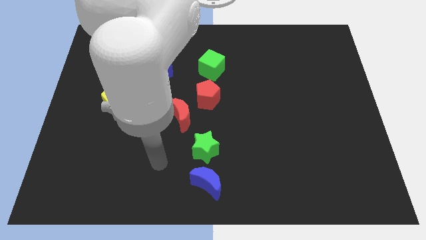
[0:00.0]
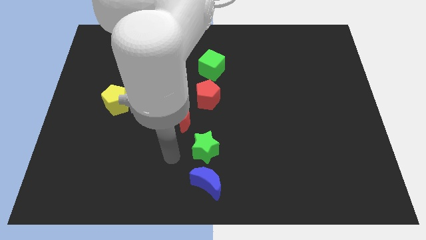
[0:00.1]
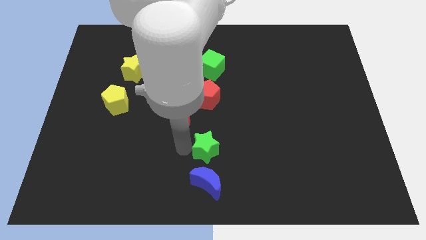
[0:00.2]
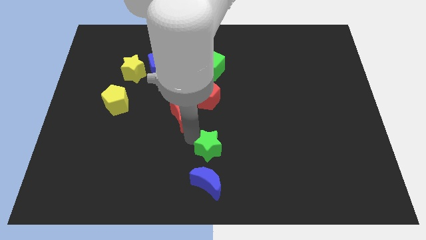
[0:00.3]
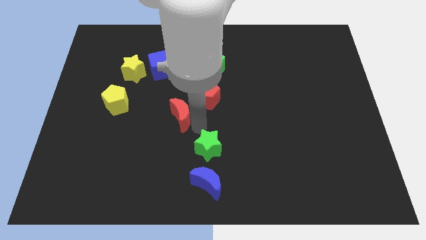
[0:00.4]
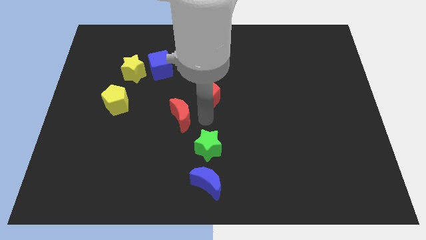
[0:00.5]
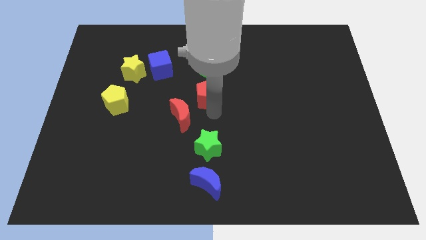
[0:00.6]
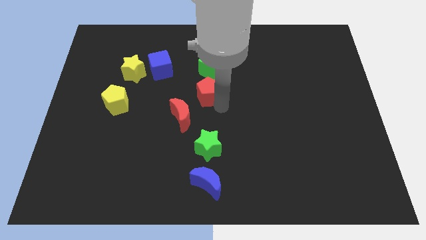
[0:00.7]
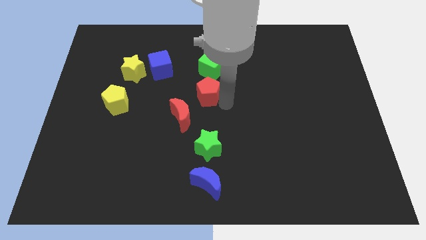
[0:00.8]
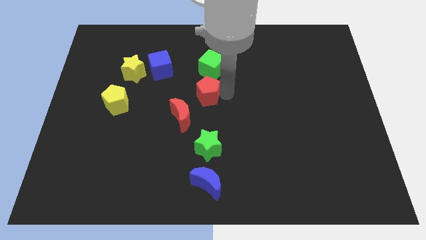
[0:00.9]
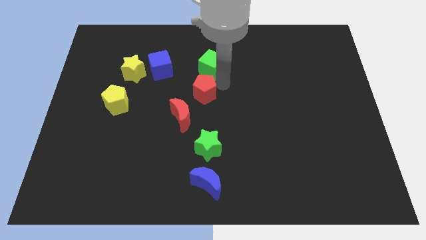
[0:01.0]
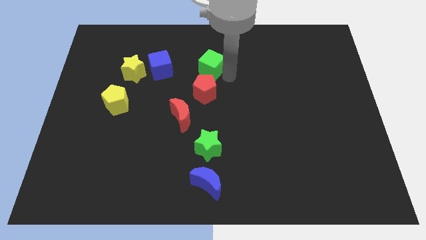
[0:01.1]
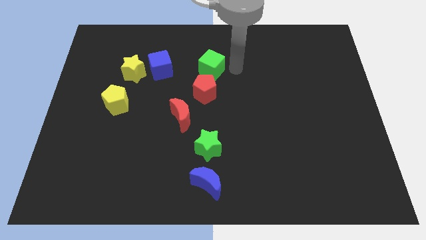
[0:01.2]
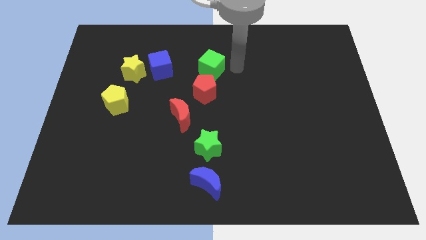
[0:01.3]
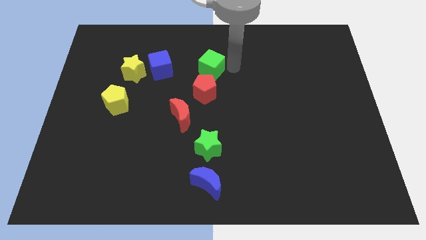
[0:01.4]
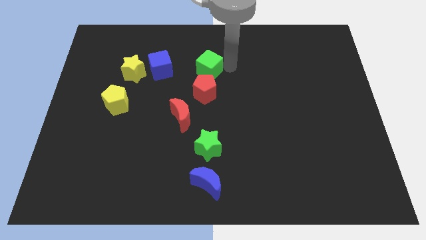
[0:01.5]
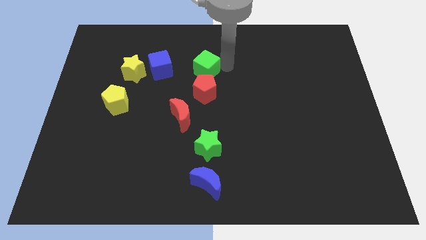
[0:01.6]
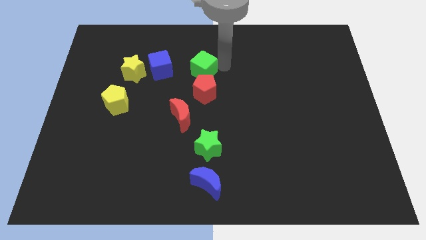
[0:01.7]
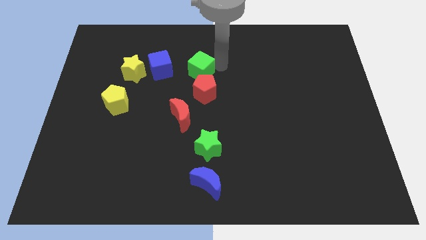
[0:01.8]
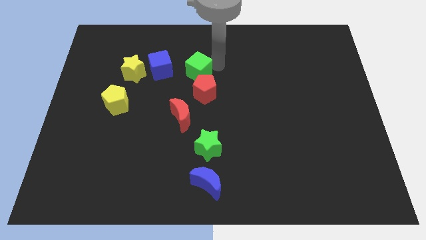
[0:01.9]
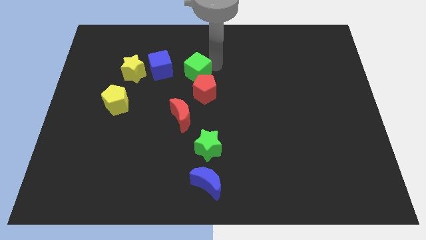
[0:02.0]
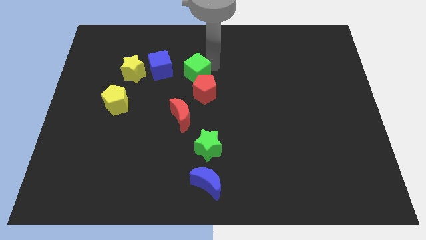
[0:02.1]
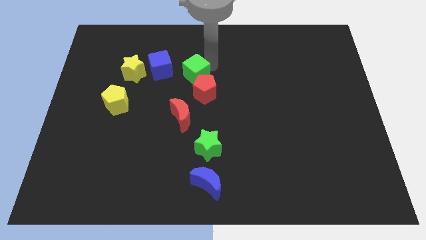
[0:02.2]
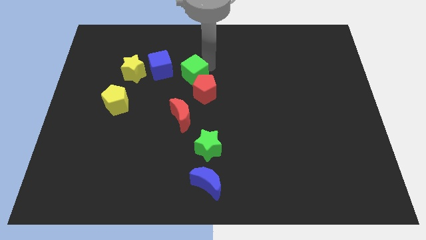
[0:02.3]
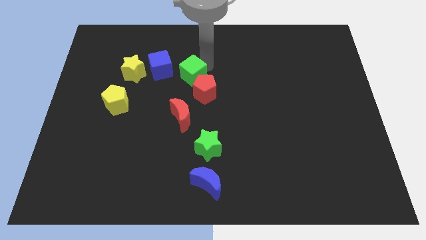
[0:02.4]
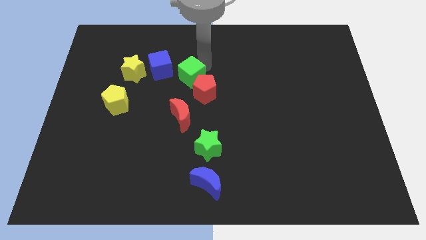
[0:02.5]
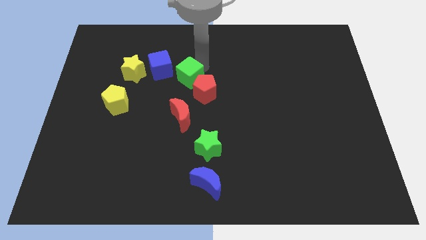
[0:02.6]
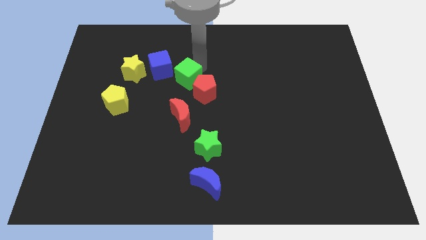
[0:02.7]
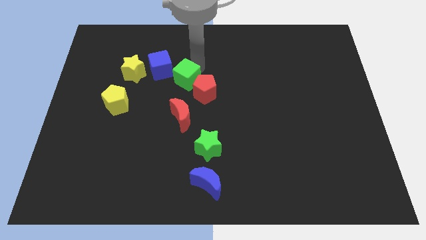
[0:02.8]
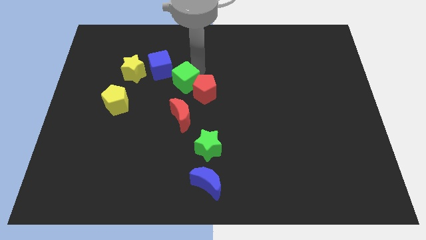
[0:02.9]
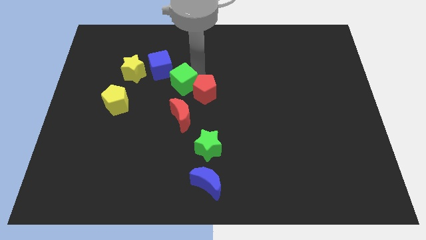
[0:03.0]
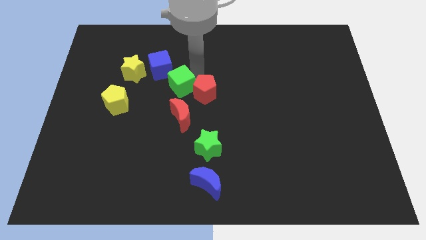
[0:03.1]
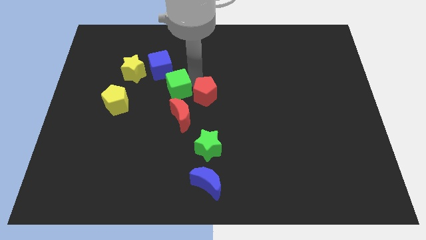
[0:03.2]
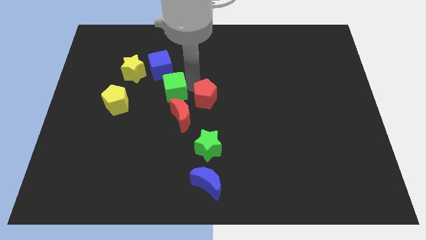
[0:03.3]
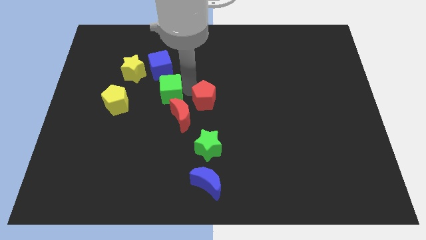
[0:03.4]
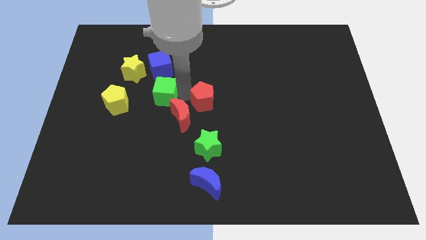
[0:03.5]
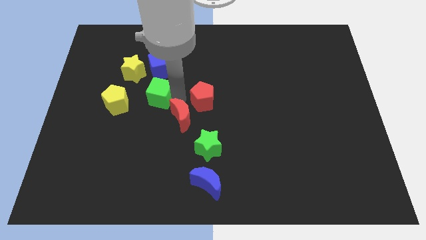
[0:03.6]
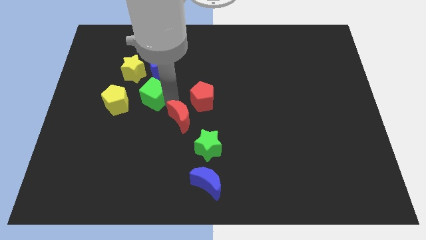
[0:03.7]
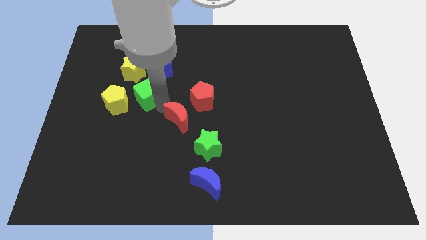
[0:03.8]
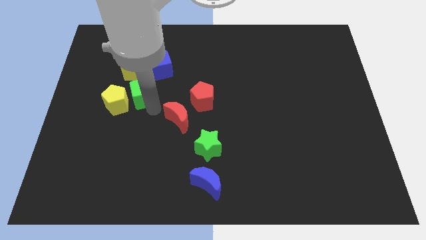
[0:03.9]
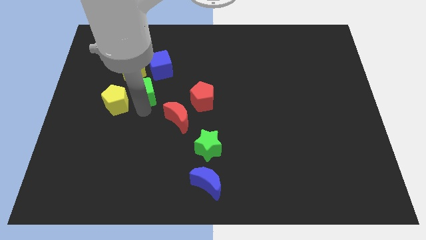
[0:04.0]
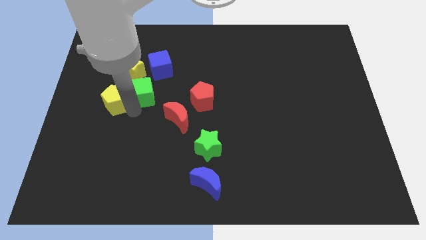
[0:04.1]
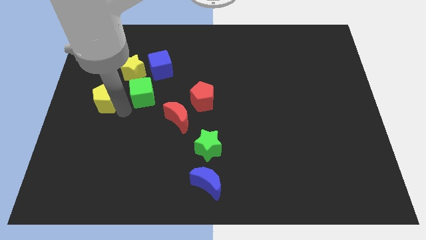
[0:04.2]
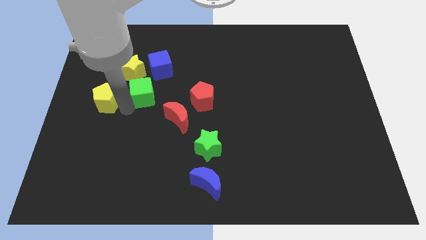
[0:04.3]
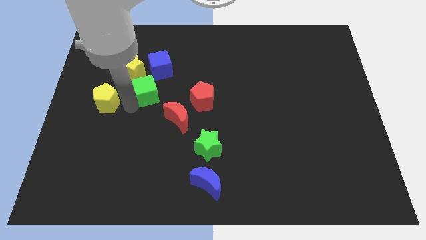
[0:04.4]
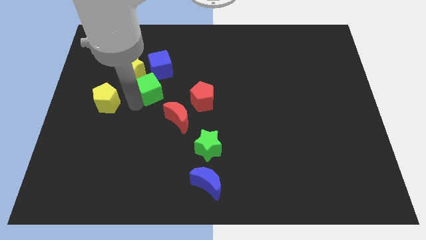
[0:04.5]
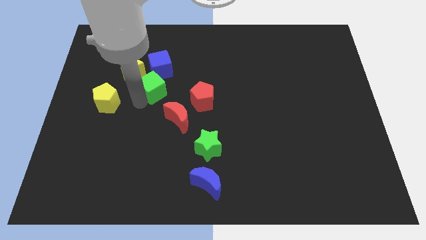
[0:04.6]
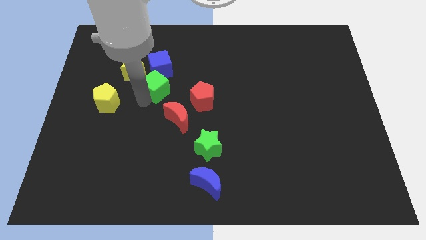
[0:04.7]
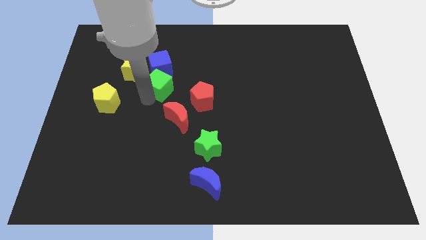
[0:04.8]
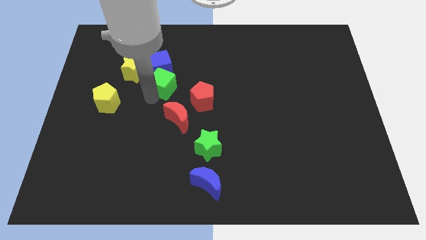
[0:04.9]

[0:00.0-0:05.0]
move the green cube next to the blue cube

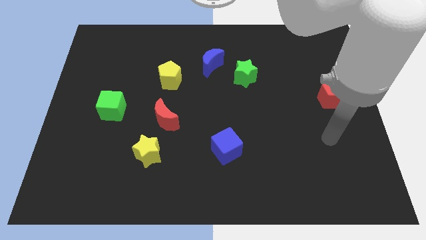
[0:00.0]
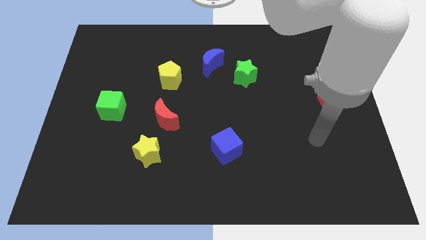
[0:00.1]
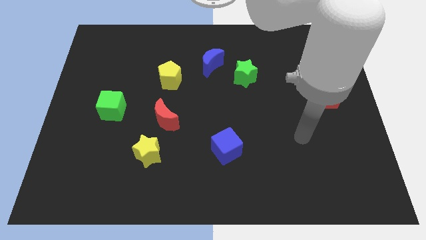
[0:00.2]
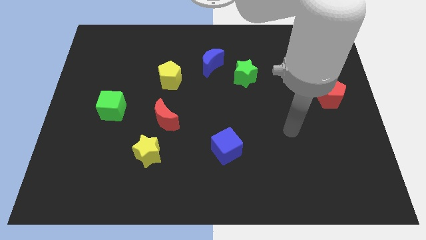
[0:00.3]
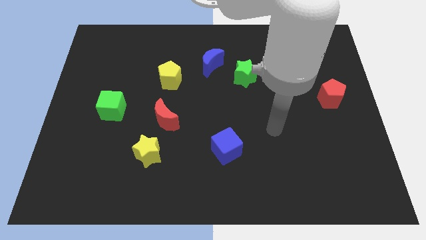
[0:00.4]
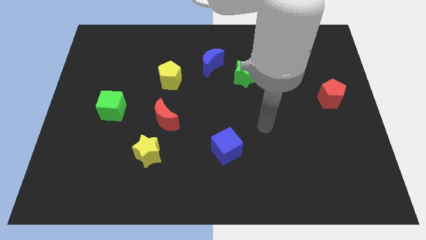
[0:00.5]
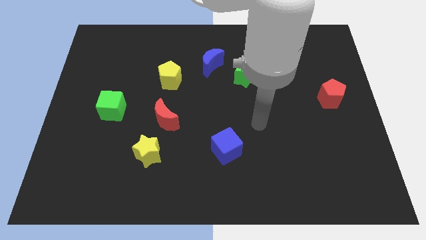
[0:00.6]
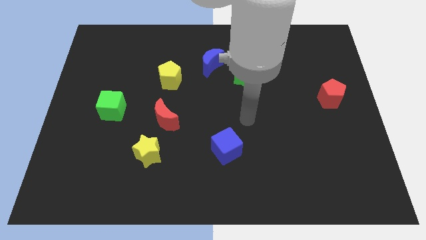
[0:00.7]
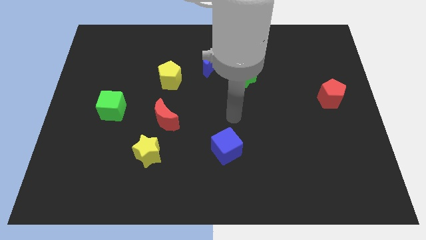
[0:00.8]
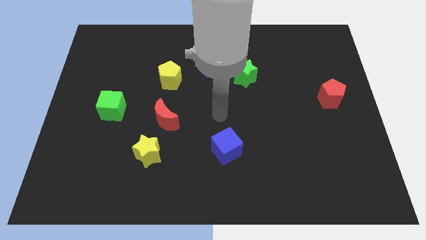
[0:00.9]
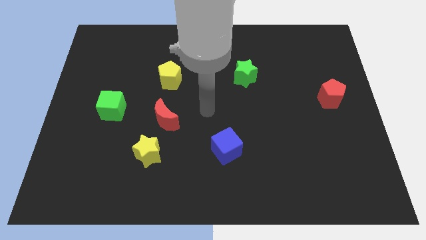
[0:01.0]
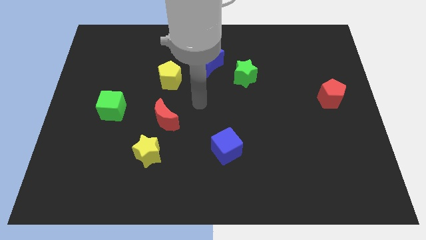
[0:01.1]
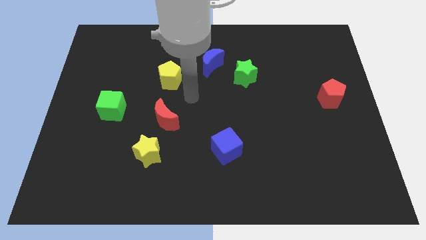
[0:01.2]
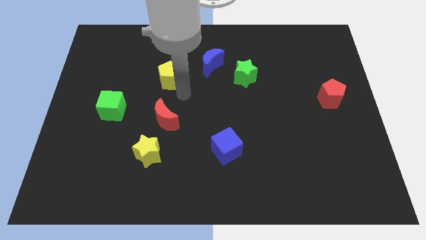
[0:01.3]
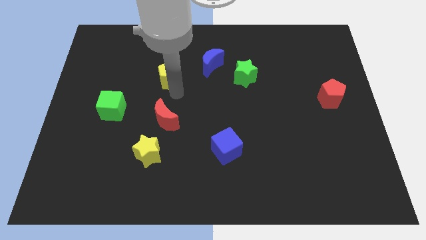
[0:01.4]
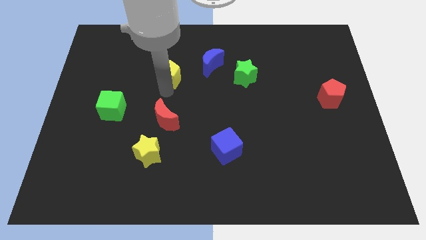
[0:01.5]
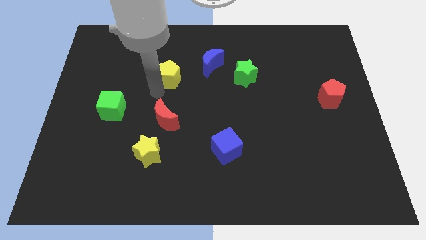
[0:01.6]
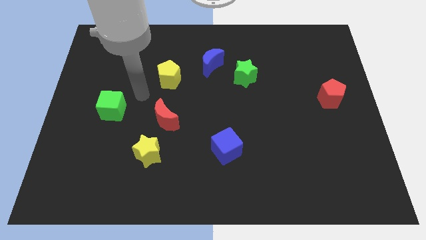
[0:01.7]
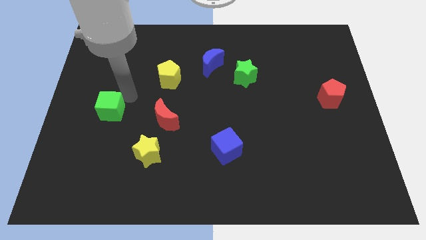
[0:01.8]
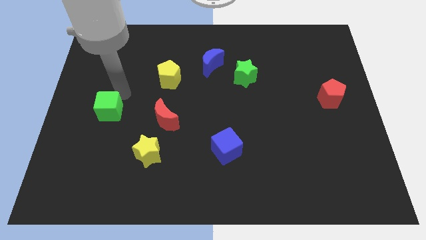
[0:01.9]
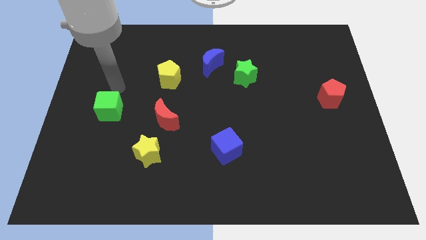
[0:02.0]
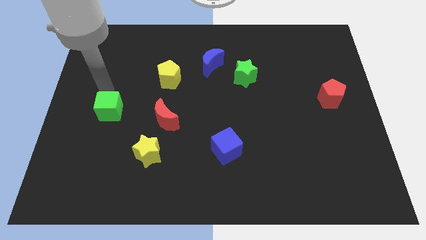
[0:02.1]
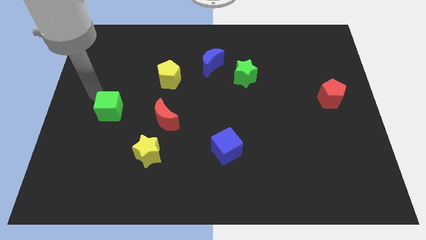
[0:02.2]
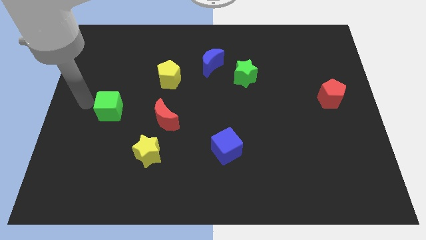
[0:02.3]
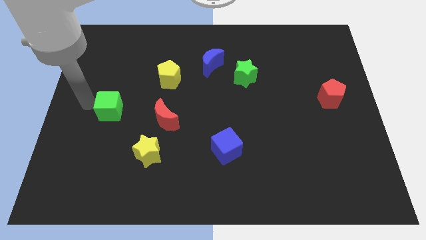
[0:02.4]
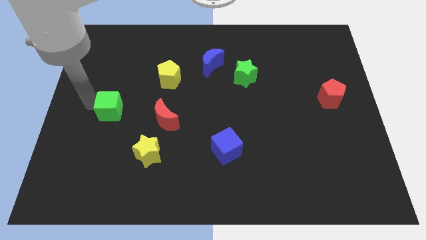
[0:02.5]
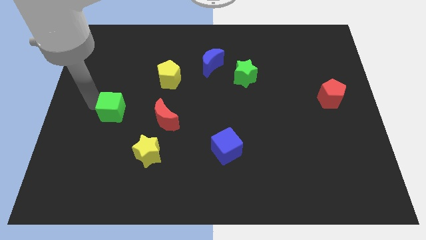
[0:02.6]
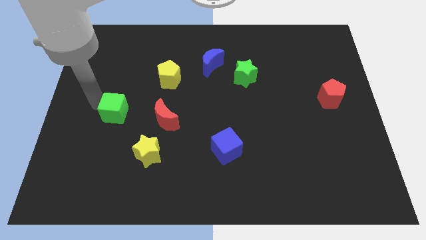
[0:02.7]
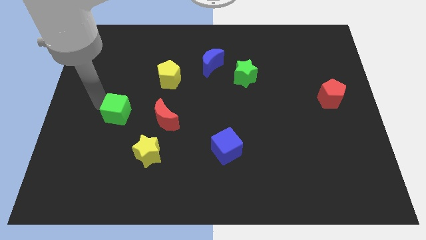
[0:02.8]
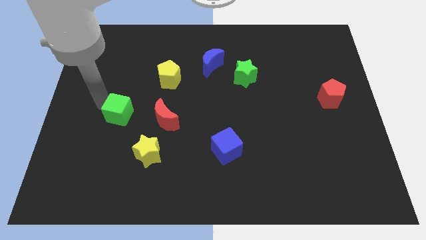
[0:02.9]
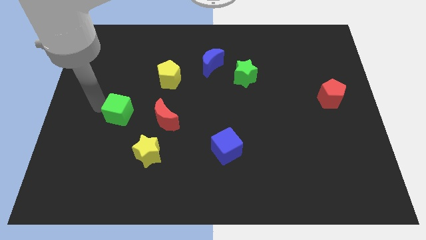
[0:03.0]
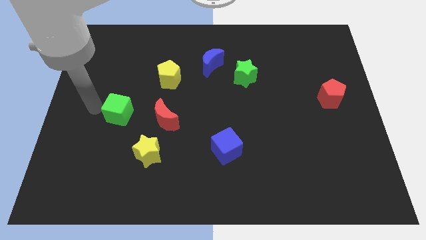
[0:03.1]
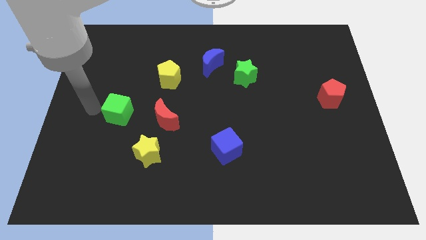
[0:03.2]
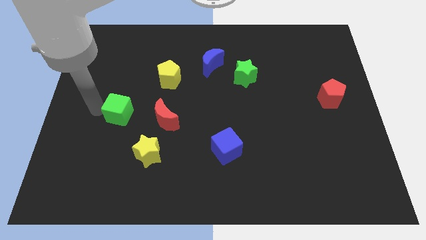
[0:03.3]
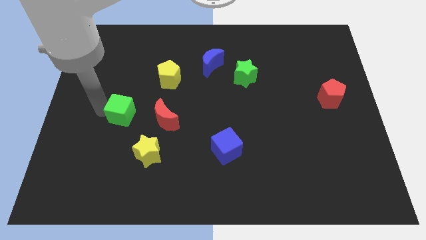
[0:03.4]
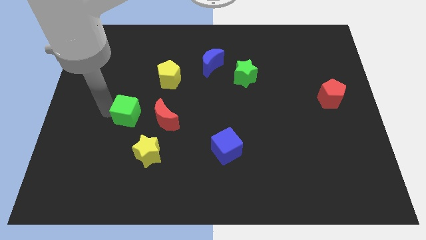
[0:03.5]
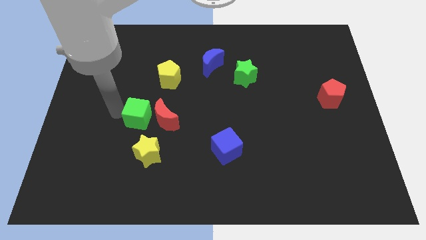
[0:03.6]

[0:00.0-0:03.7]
slide the green cube towards the red moon
